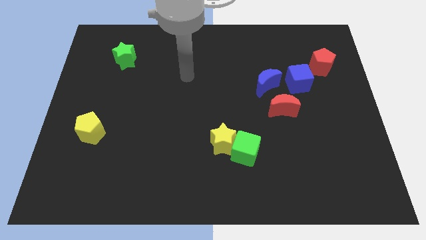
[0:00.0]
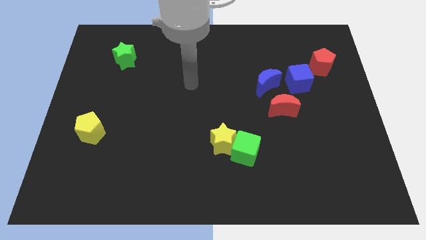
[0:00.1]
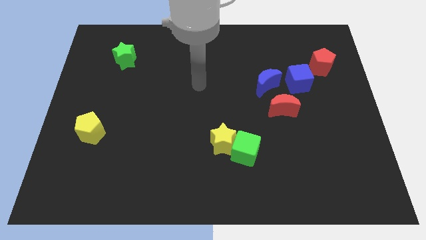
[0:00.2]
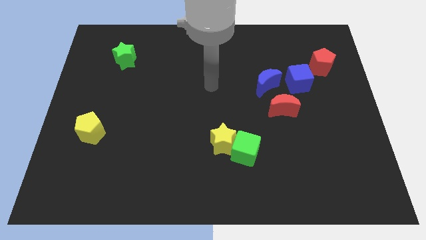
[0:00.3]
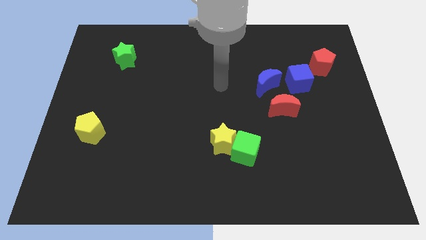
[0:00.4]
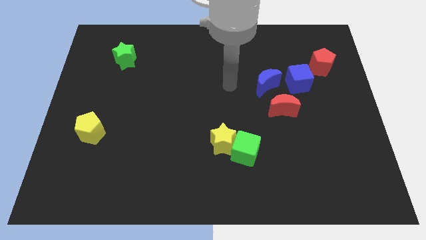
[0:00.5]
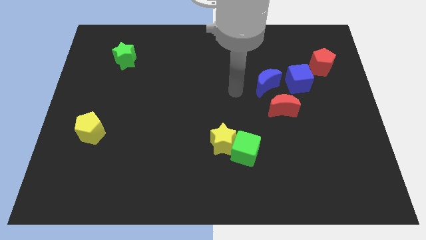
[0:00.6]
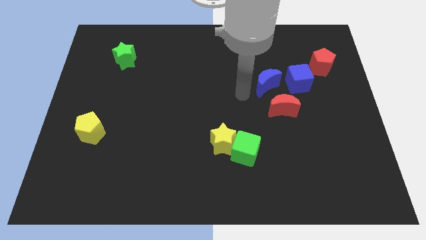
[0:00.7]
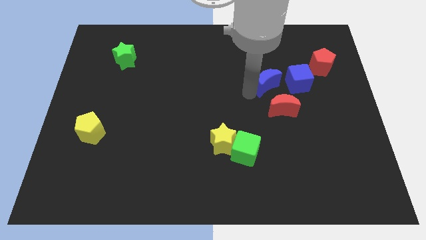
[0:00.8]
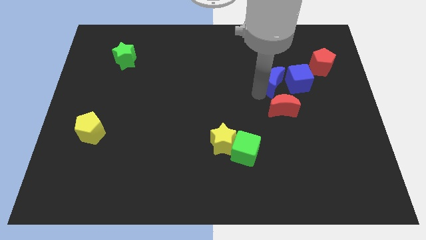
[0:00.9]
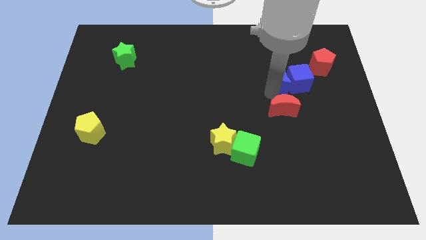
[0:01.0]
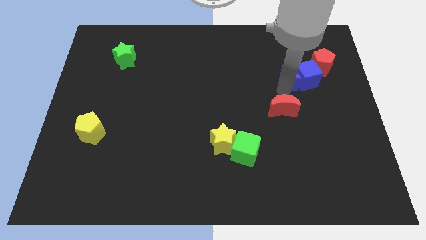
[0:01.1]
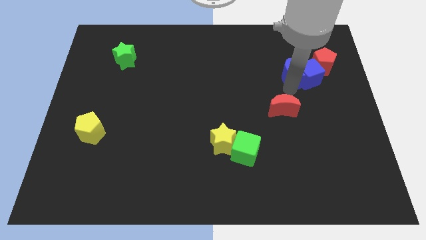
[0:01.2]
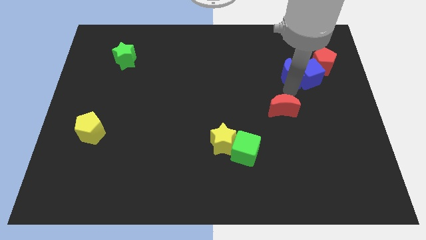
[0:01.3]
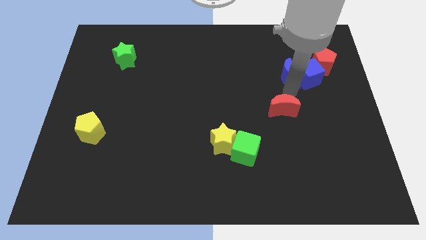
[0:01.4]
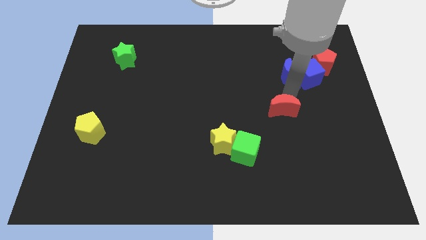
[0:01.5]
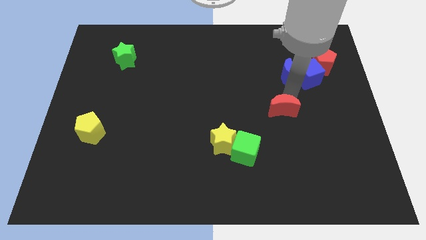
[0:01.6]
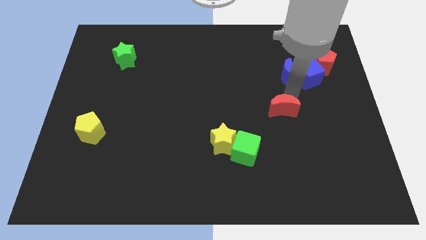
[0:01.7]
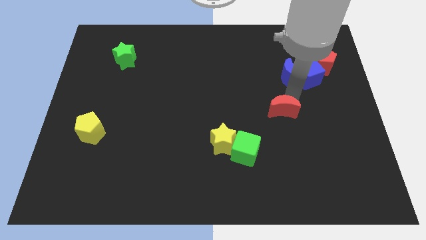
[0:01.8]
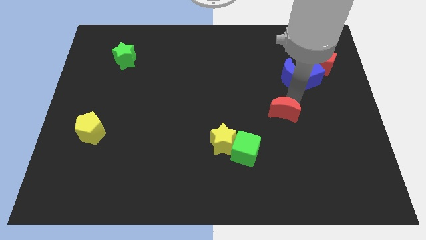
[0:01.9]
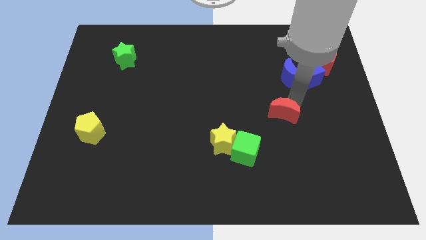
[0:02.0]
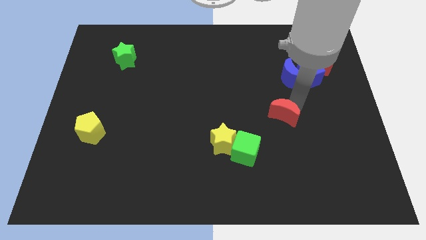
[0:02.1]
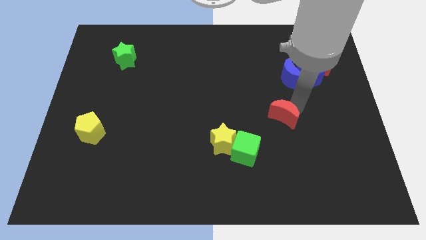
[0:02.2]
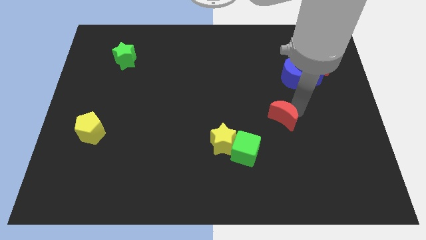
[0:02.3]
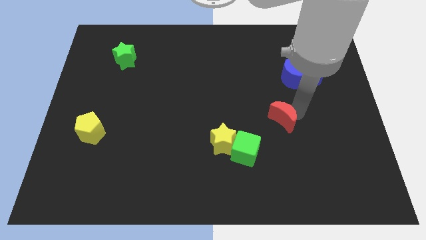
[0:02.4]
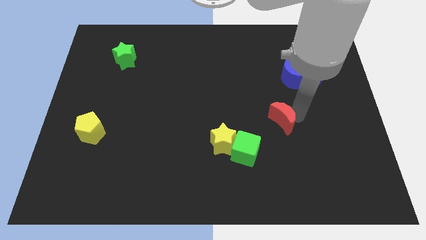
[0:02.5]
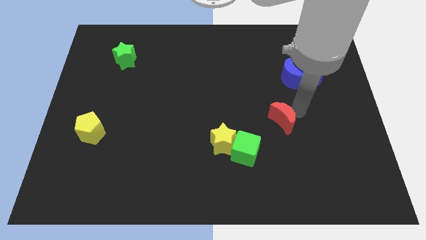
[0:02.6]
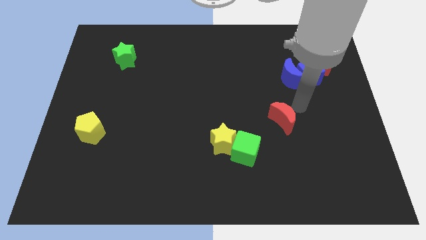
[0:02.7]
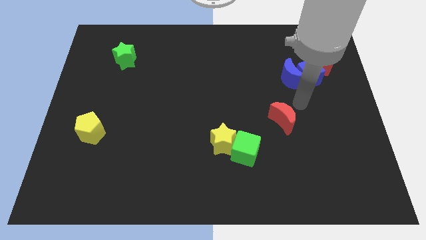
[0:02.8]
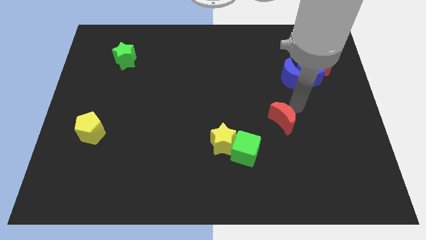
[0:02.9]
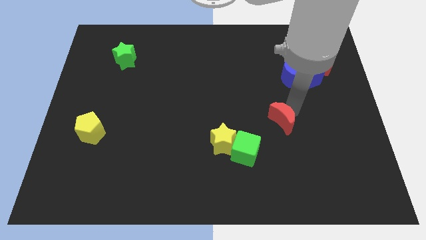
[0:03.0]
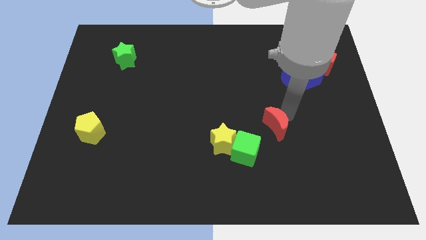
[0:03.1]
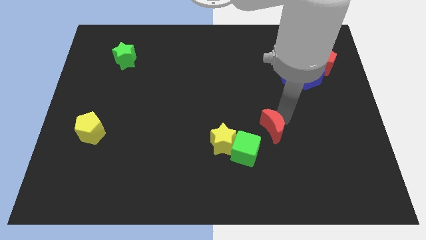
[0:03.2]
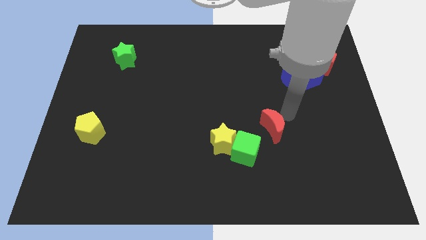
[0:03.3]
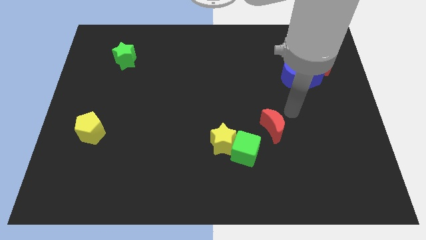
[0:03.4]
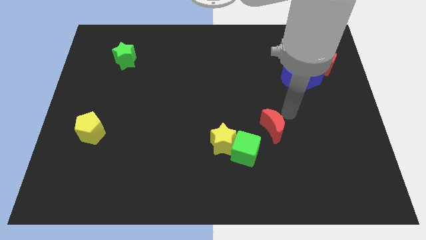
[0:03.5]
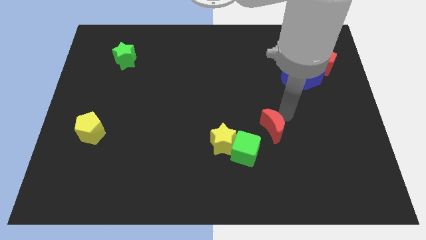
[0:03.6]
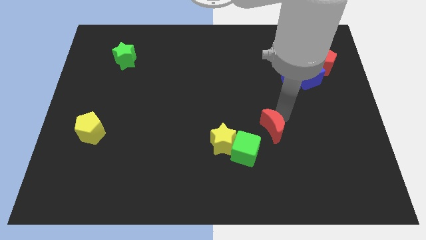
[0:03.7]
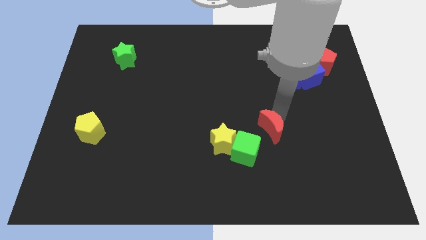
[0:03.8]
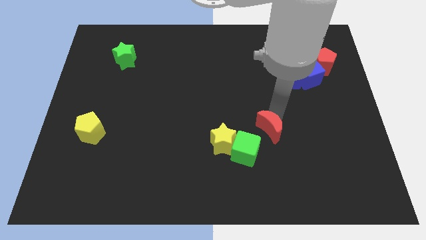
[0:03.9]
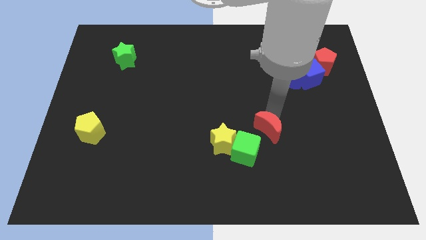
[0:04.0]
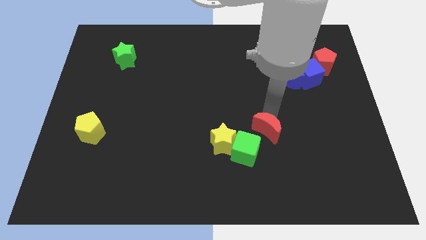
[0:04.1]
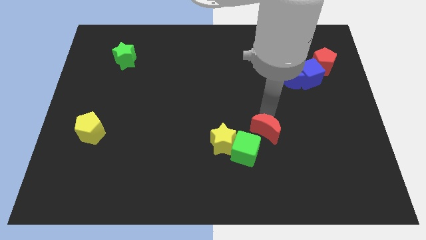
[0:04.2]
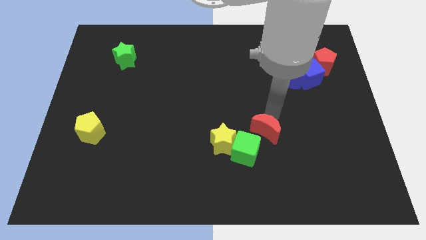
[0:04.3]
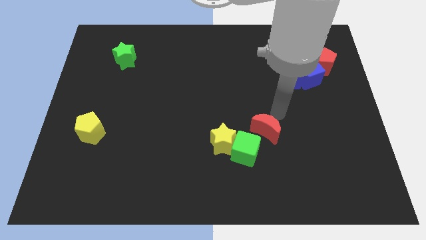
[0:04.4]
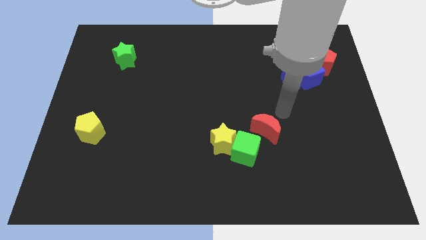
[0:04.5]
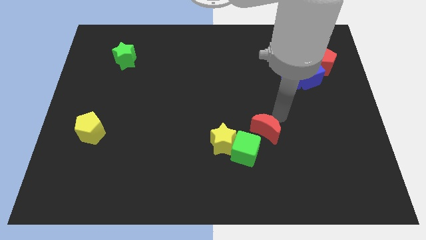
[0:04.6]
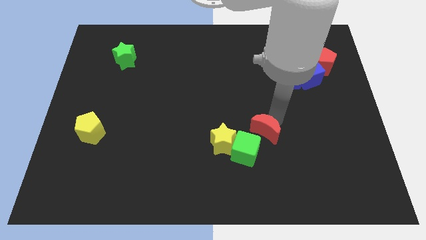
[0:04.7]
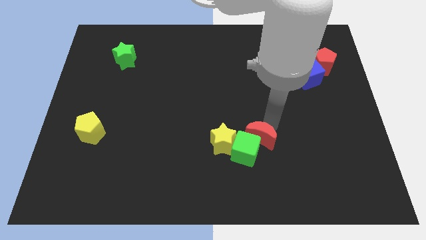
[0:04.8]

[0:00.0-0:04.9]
put the red moon towards the green cube

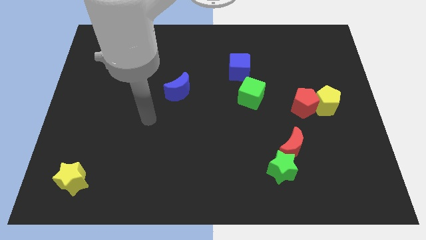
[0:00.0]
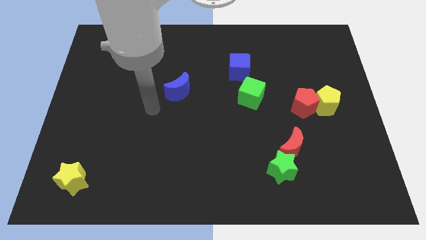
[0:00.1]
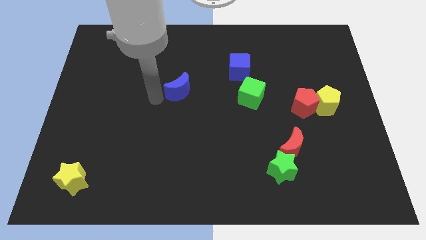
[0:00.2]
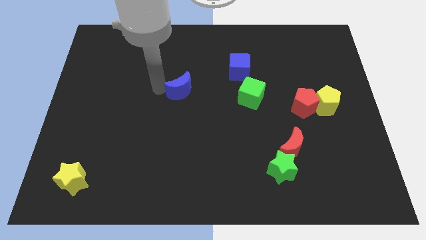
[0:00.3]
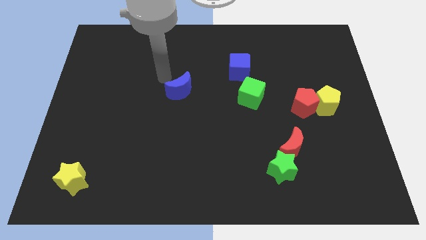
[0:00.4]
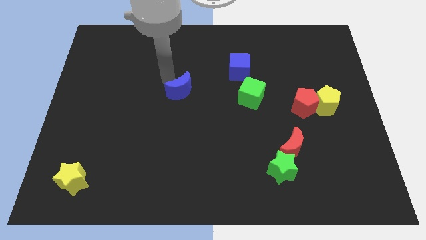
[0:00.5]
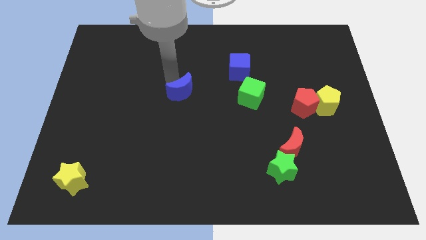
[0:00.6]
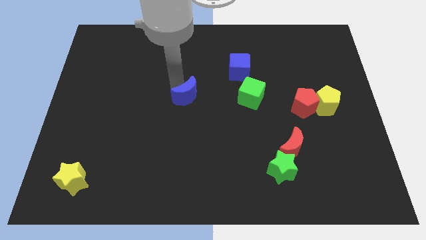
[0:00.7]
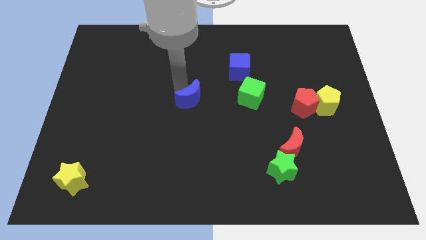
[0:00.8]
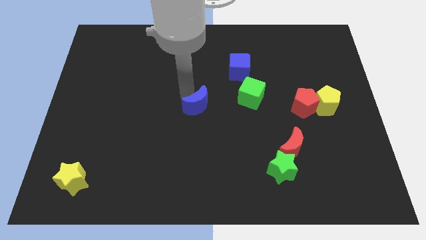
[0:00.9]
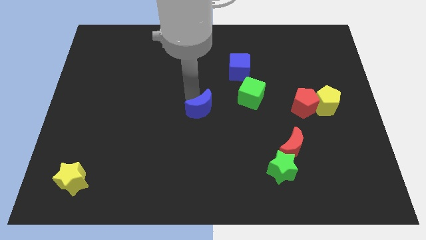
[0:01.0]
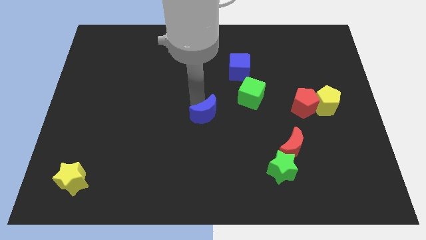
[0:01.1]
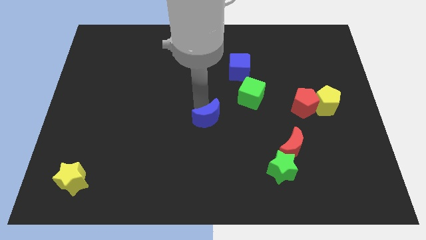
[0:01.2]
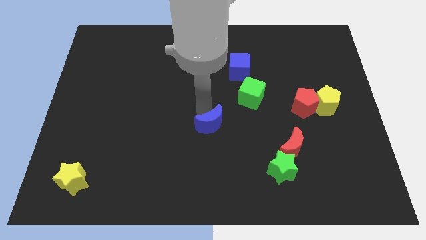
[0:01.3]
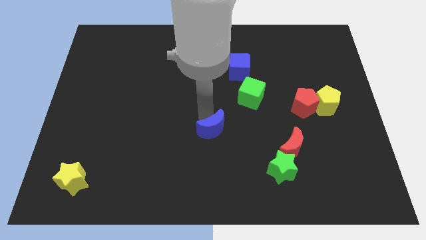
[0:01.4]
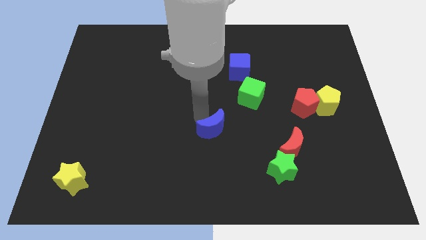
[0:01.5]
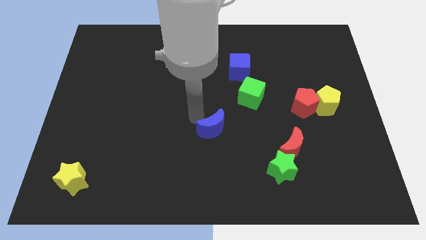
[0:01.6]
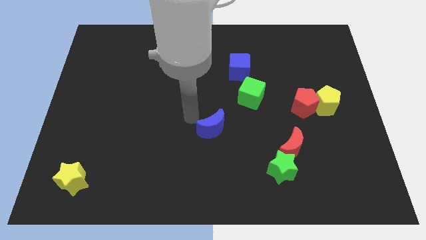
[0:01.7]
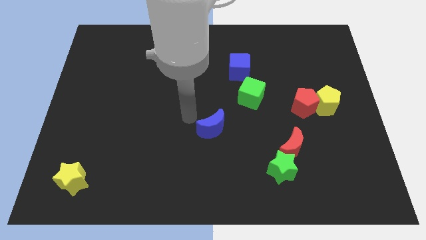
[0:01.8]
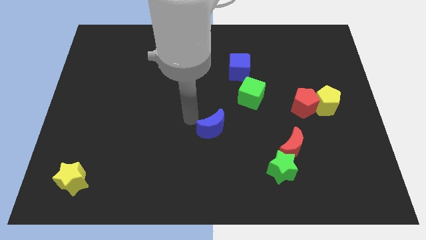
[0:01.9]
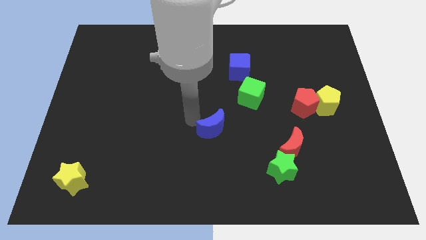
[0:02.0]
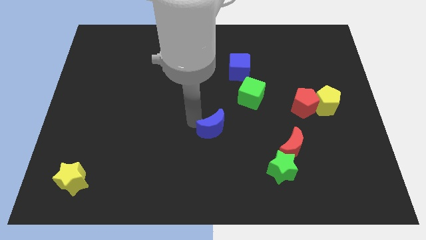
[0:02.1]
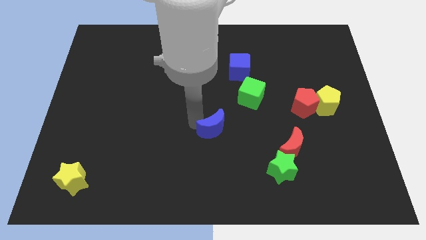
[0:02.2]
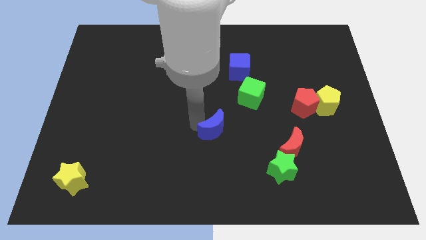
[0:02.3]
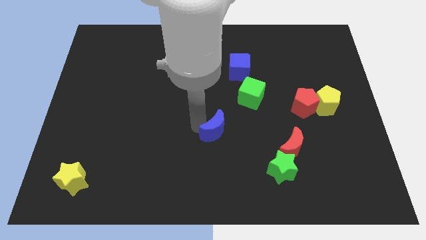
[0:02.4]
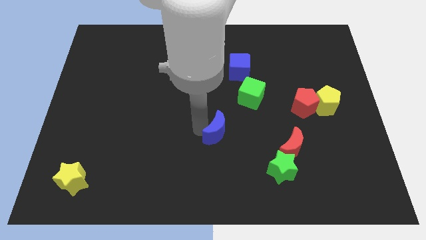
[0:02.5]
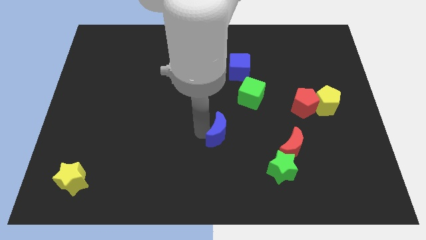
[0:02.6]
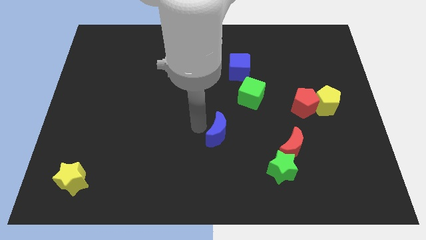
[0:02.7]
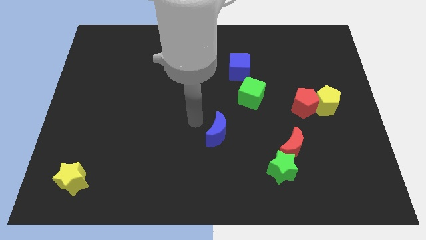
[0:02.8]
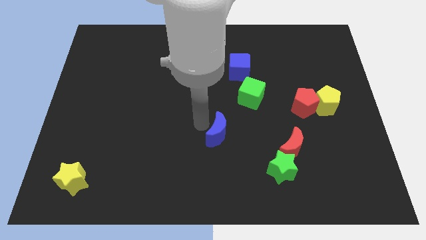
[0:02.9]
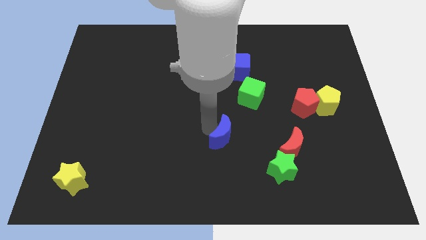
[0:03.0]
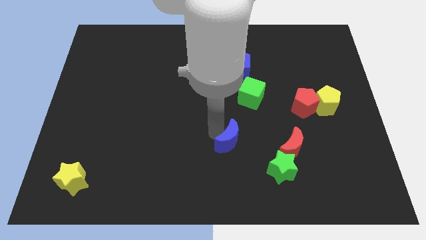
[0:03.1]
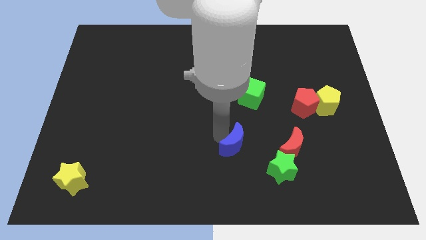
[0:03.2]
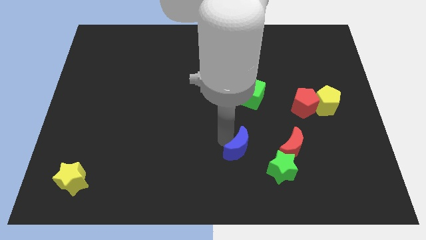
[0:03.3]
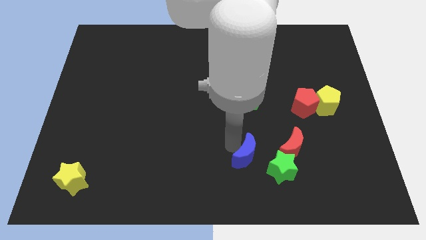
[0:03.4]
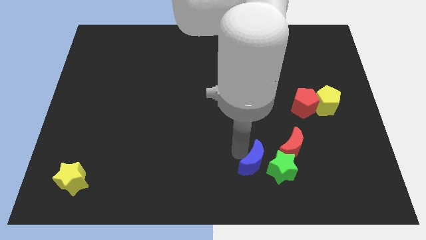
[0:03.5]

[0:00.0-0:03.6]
slide the blue moon towards the green star
